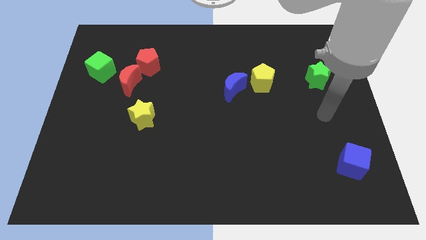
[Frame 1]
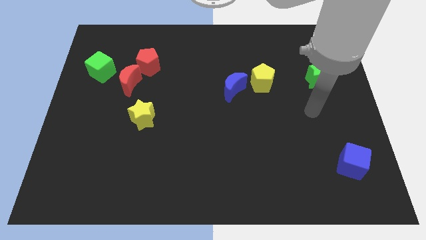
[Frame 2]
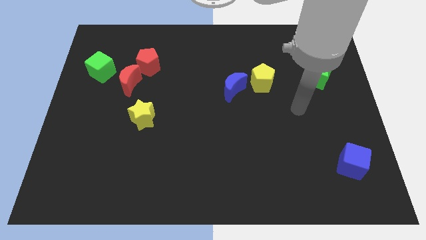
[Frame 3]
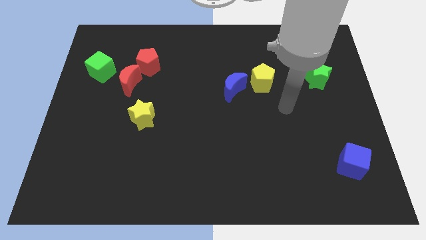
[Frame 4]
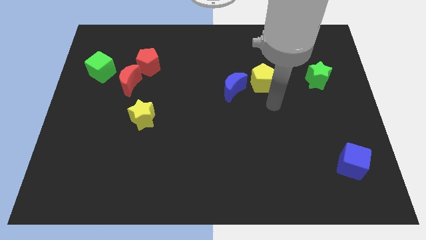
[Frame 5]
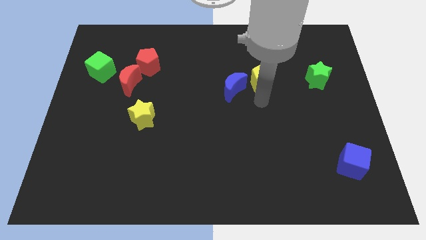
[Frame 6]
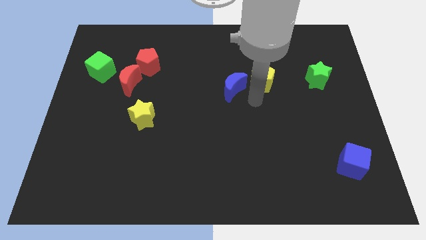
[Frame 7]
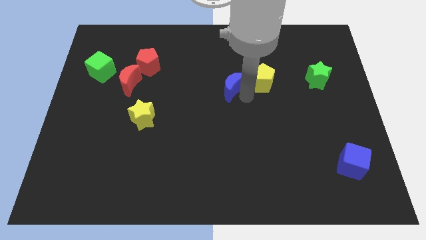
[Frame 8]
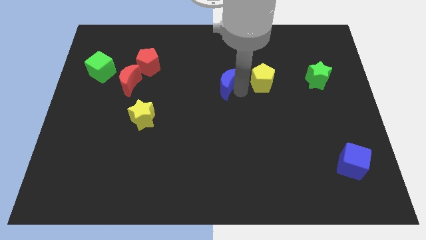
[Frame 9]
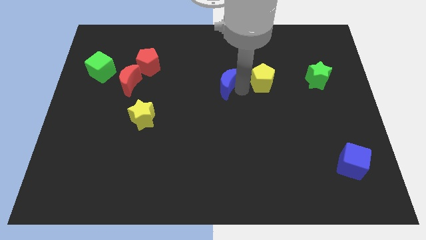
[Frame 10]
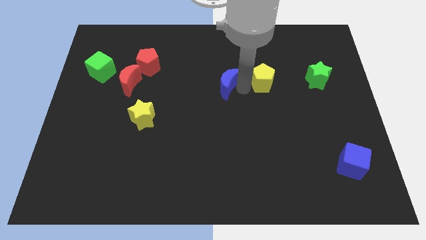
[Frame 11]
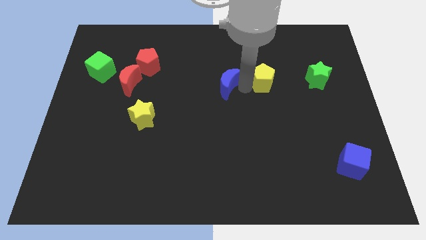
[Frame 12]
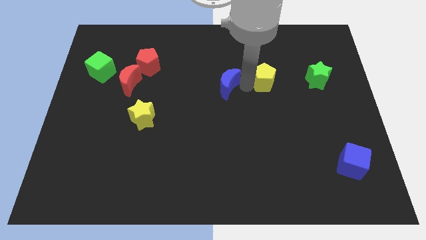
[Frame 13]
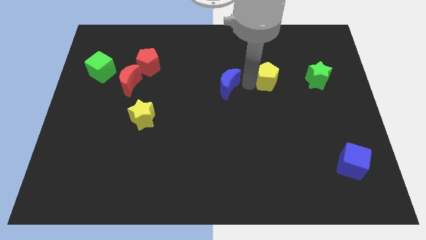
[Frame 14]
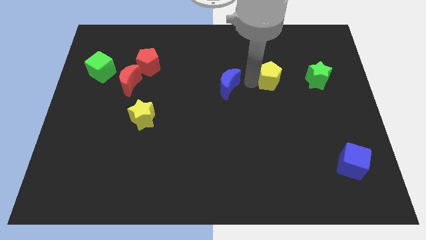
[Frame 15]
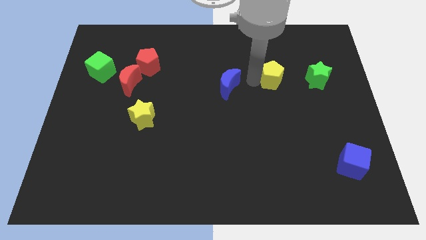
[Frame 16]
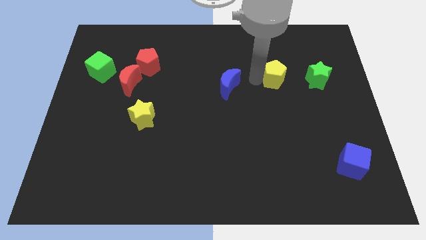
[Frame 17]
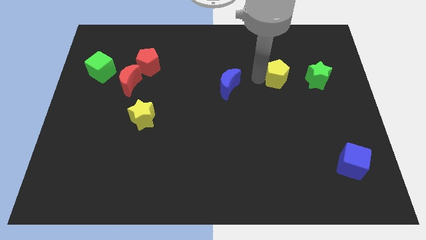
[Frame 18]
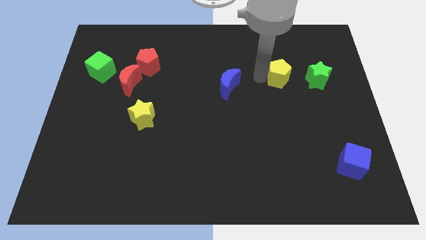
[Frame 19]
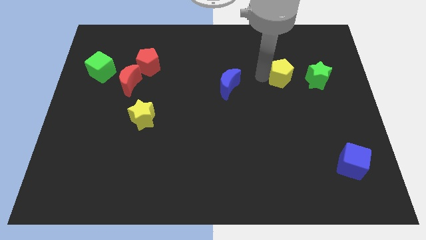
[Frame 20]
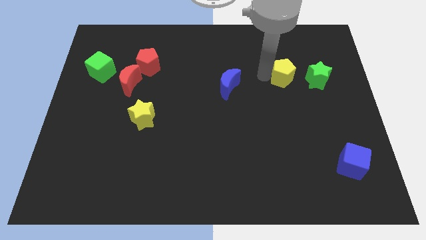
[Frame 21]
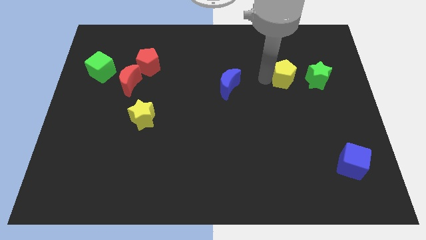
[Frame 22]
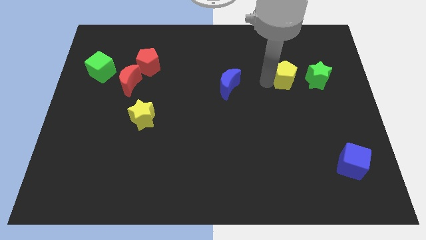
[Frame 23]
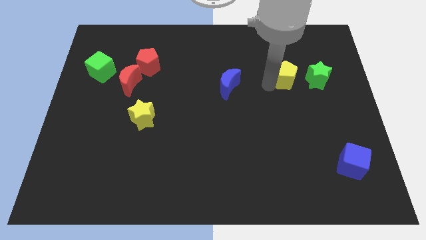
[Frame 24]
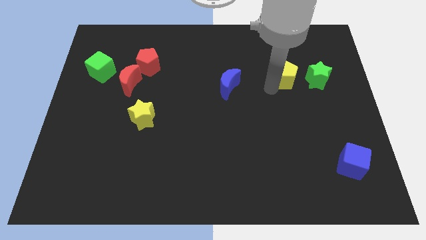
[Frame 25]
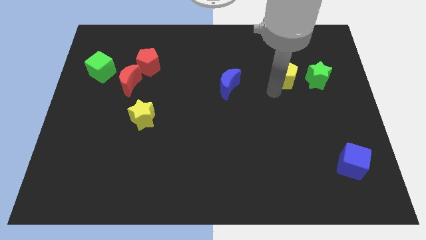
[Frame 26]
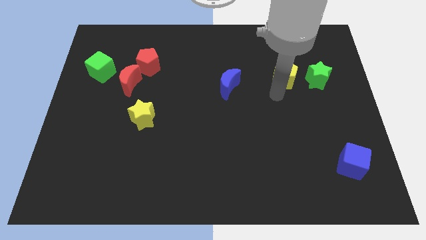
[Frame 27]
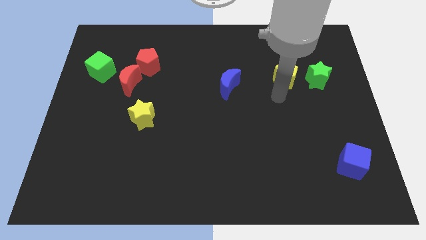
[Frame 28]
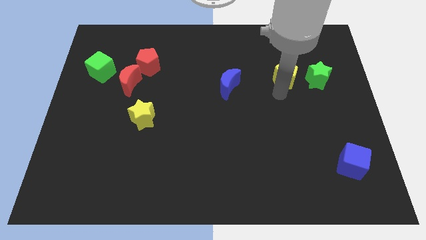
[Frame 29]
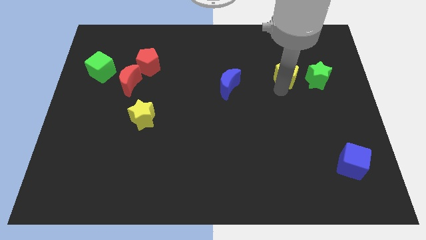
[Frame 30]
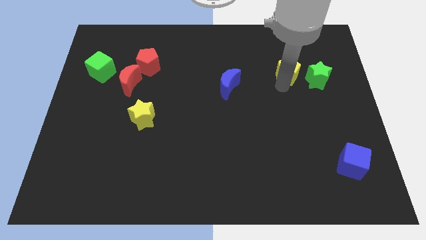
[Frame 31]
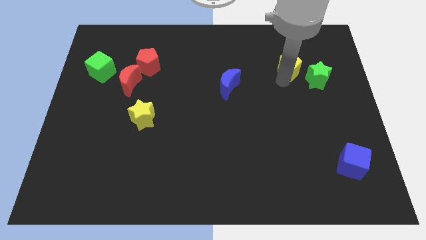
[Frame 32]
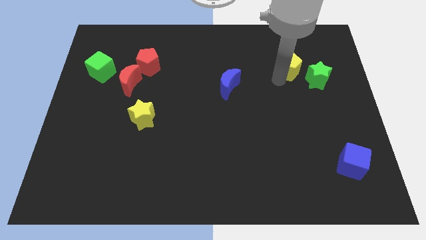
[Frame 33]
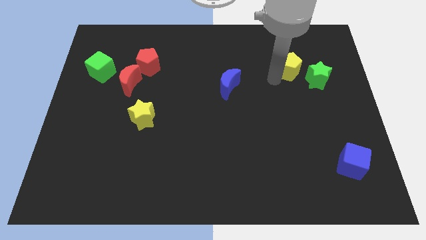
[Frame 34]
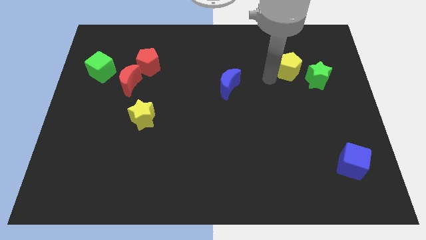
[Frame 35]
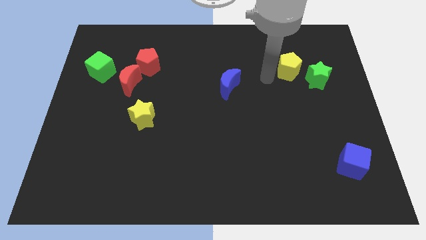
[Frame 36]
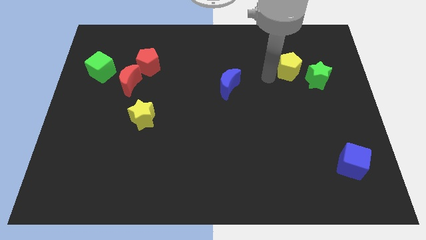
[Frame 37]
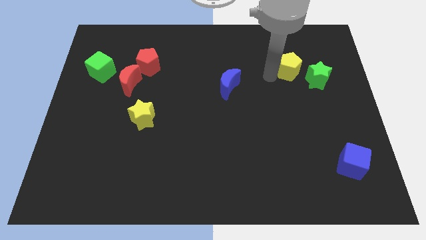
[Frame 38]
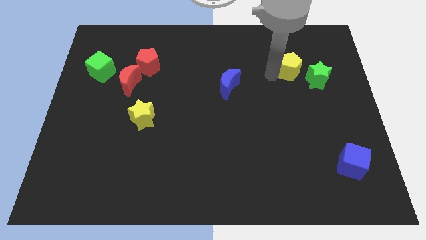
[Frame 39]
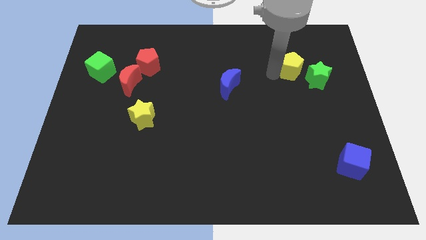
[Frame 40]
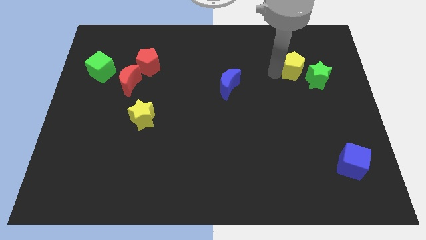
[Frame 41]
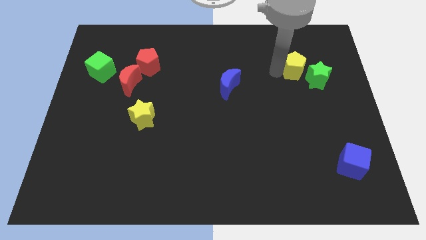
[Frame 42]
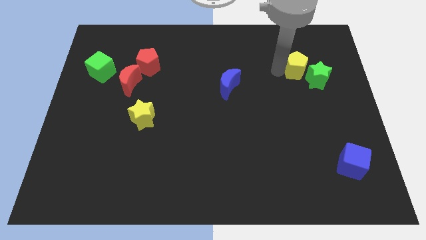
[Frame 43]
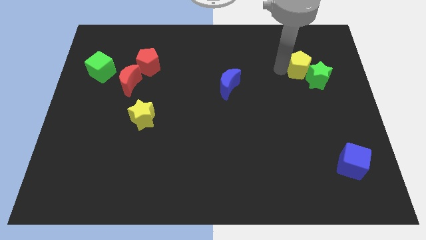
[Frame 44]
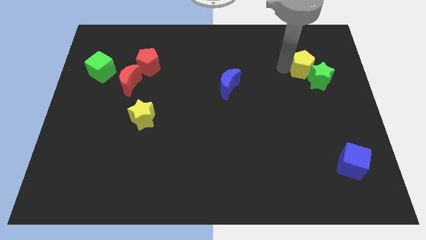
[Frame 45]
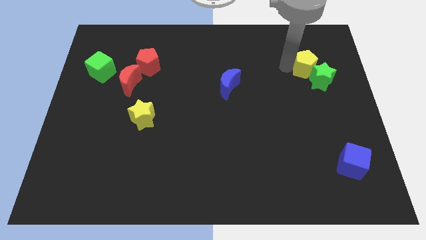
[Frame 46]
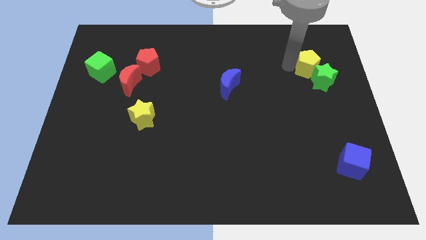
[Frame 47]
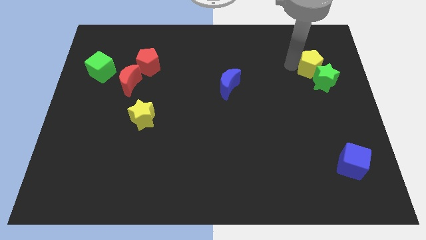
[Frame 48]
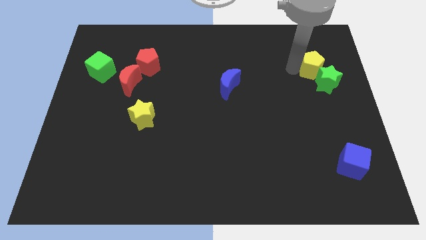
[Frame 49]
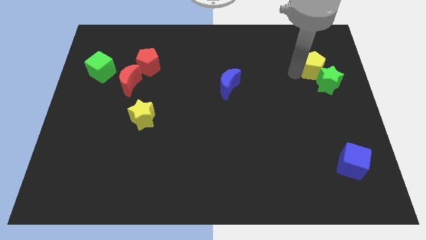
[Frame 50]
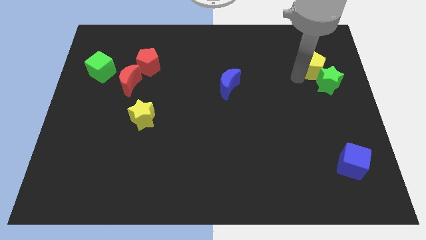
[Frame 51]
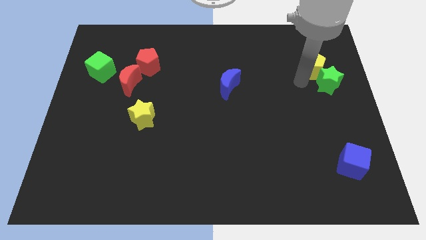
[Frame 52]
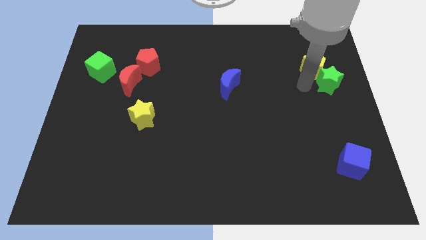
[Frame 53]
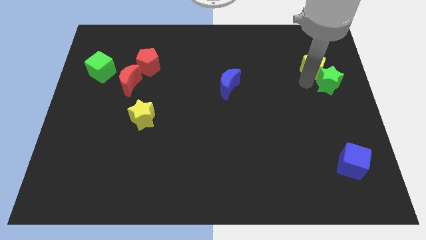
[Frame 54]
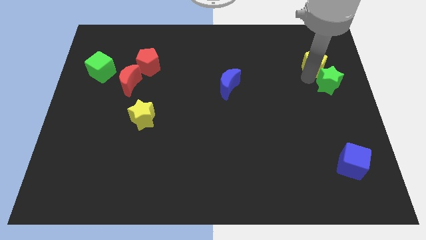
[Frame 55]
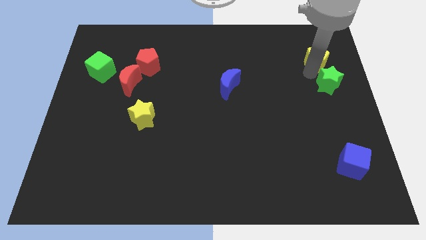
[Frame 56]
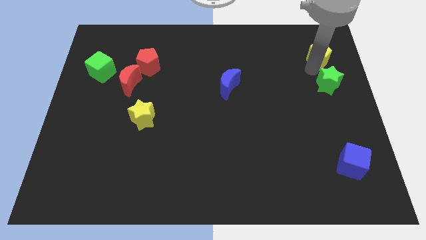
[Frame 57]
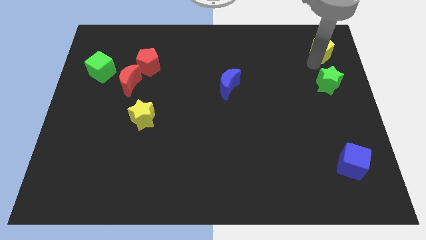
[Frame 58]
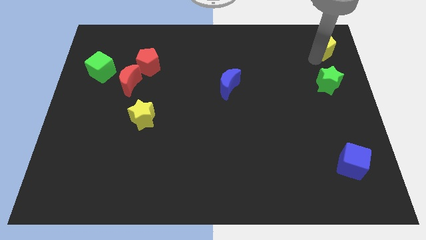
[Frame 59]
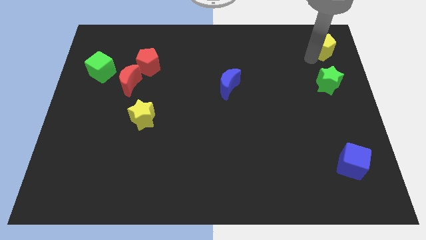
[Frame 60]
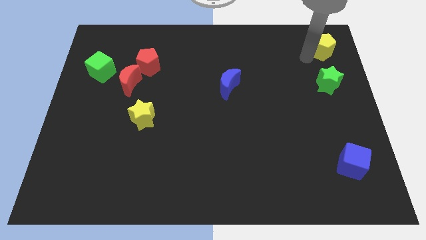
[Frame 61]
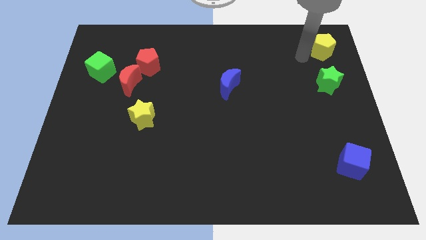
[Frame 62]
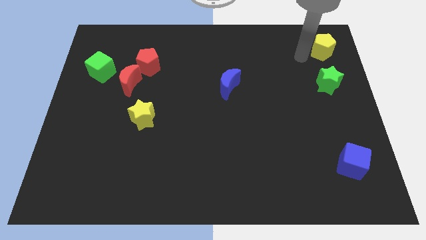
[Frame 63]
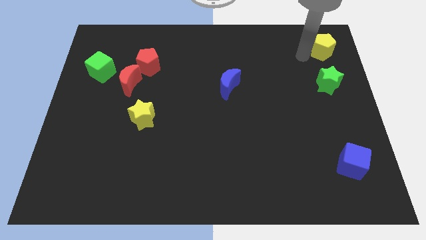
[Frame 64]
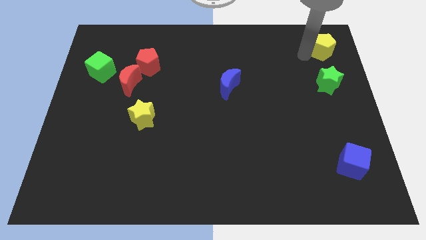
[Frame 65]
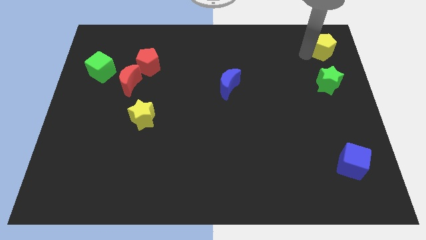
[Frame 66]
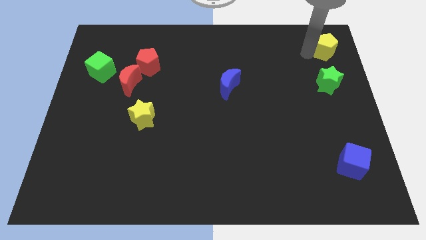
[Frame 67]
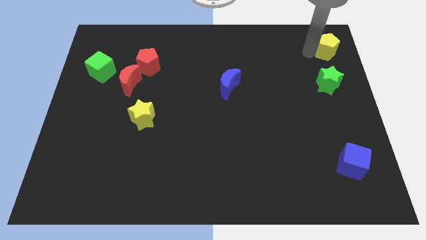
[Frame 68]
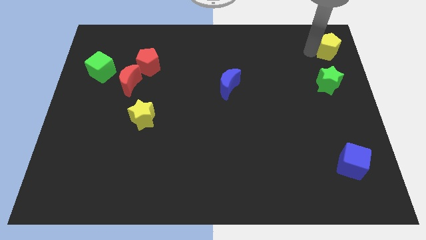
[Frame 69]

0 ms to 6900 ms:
slide the yellow pentagon to the top right of the board

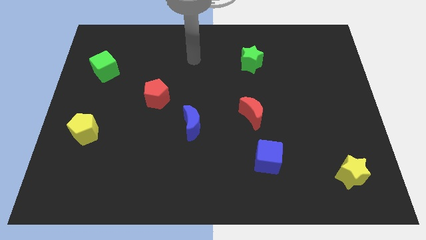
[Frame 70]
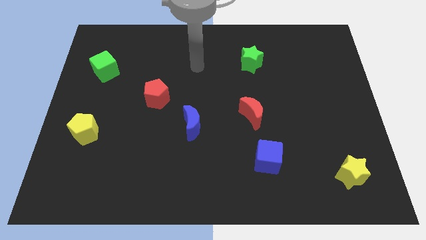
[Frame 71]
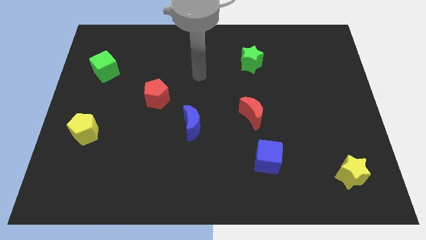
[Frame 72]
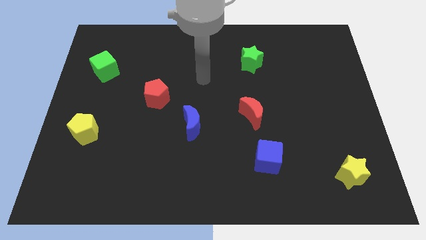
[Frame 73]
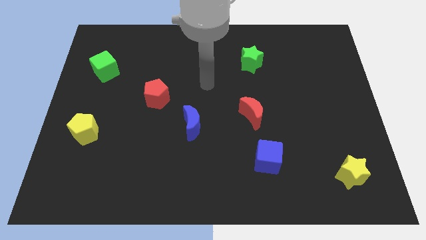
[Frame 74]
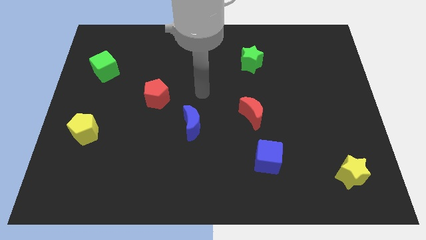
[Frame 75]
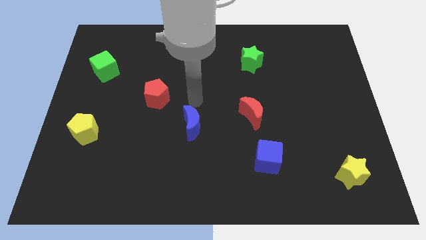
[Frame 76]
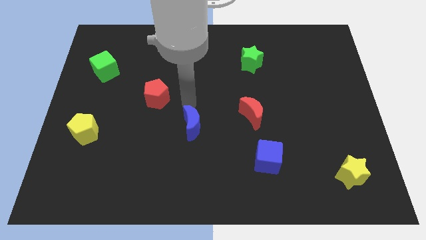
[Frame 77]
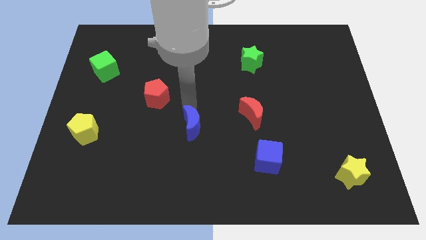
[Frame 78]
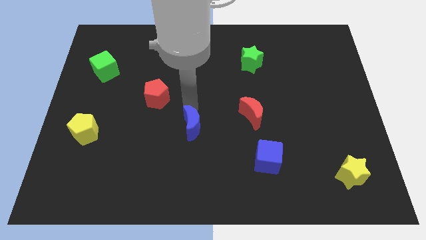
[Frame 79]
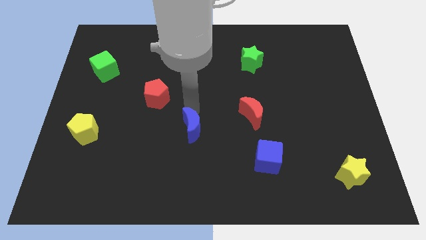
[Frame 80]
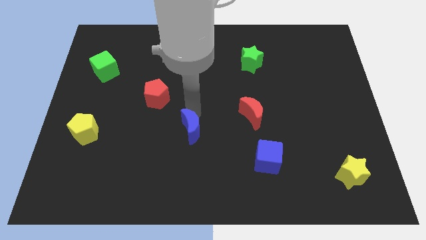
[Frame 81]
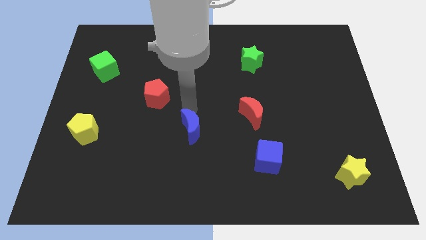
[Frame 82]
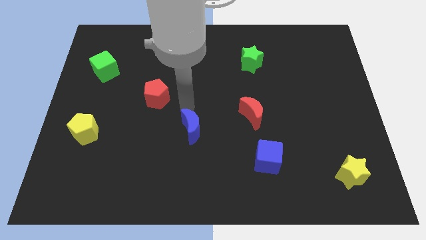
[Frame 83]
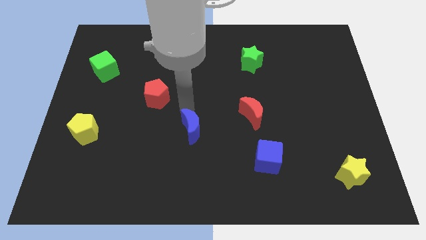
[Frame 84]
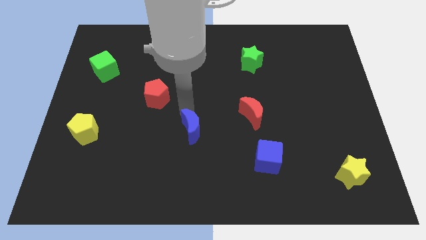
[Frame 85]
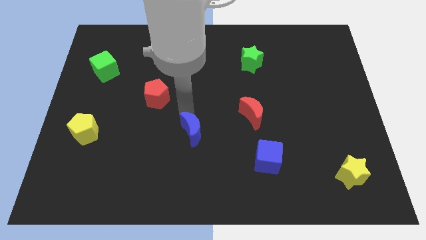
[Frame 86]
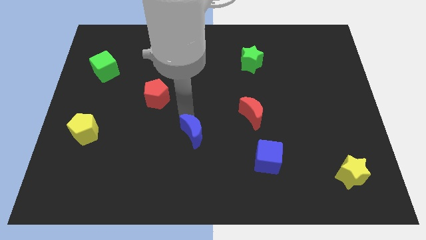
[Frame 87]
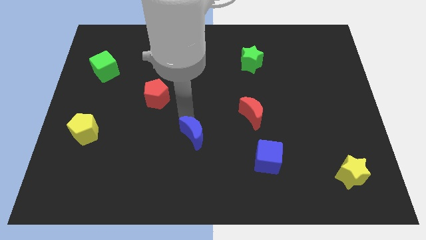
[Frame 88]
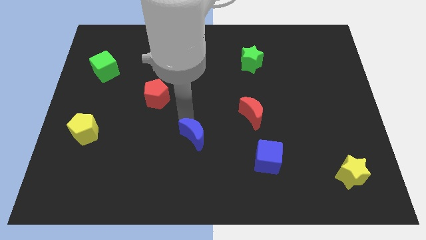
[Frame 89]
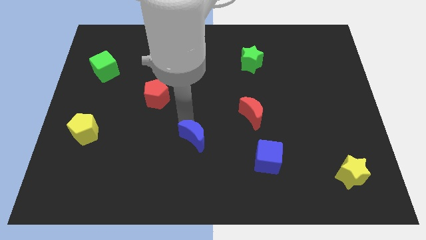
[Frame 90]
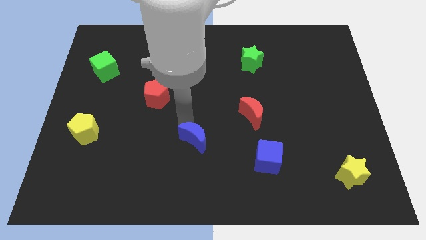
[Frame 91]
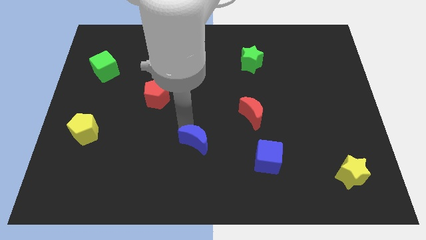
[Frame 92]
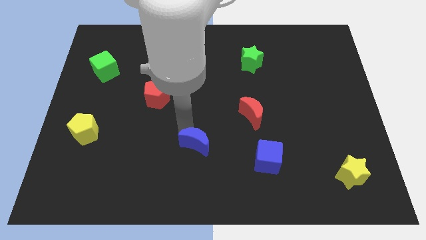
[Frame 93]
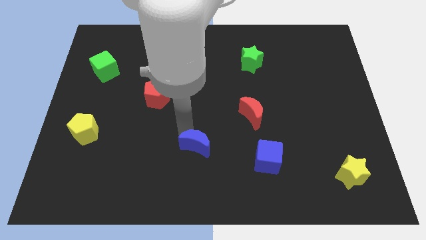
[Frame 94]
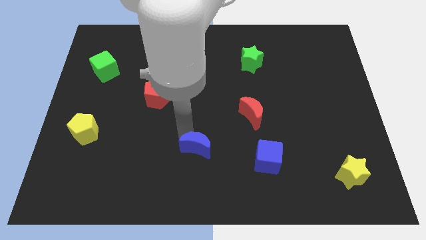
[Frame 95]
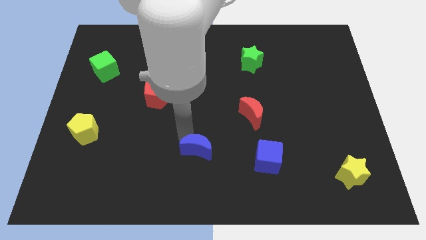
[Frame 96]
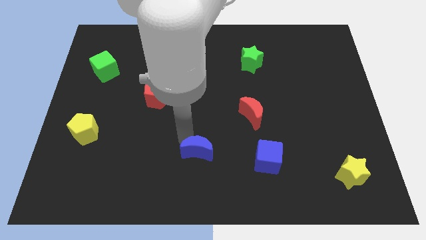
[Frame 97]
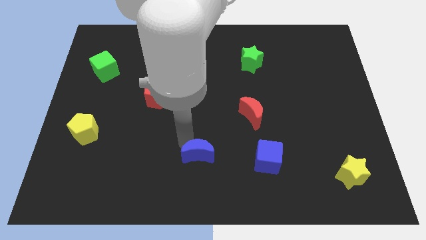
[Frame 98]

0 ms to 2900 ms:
put the blue moon to the bottom side
